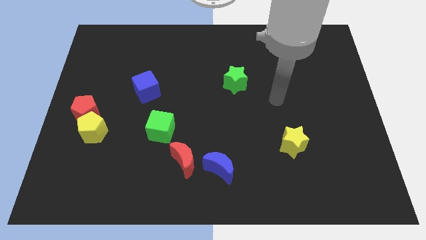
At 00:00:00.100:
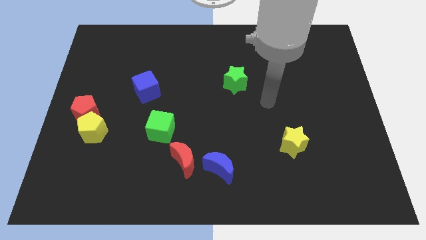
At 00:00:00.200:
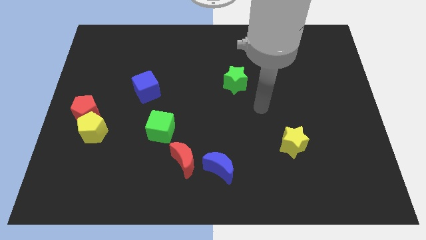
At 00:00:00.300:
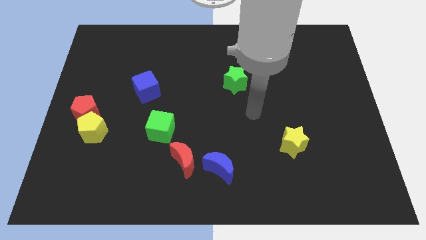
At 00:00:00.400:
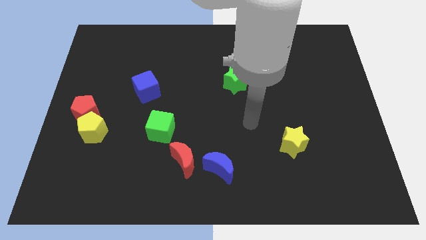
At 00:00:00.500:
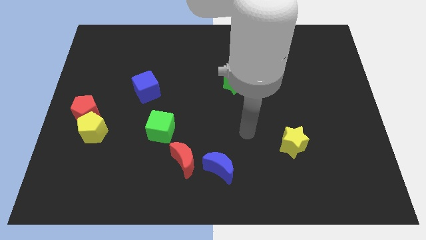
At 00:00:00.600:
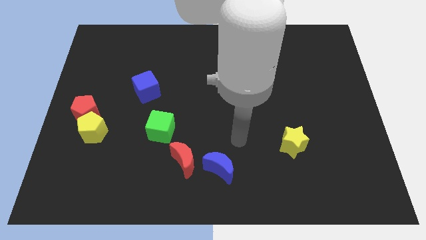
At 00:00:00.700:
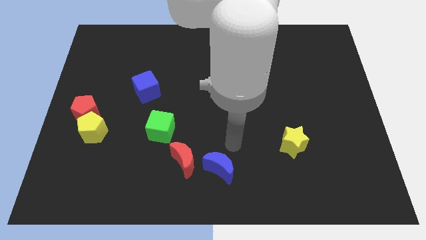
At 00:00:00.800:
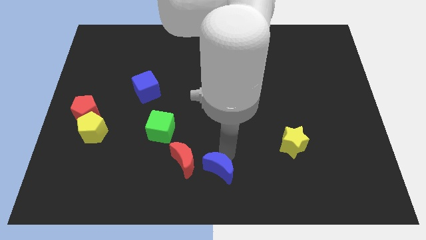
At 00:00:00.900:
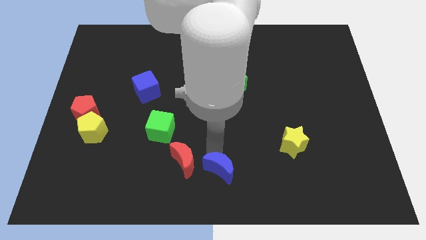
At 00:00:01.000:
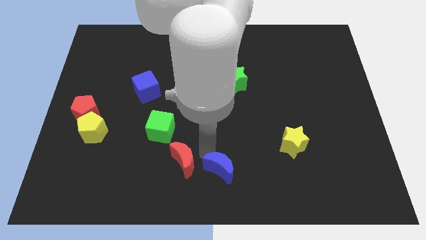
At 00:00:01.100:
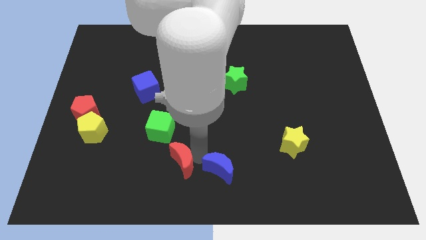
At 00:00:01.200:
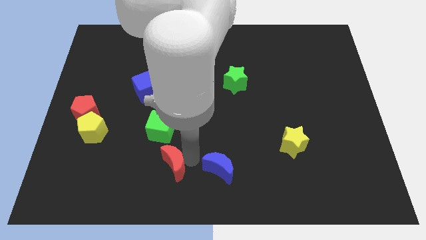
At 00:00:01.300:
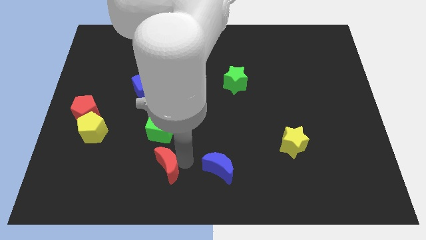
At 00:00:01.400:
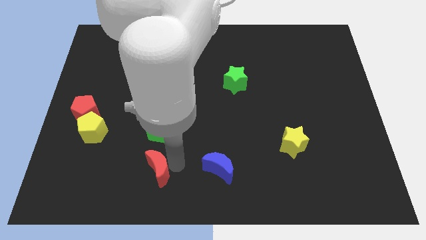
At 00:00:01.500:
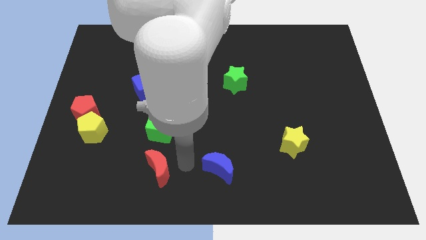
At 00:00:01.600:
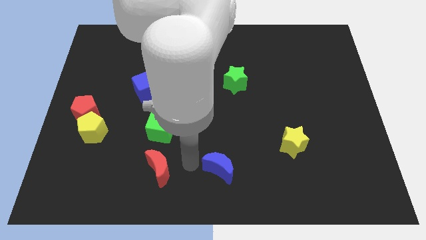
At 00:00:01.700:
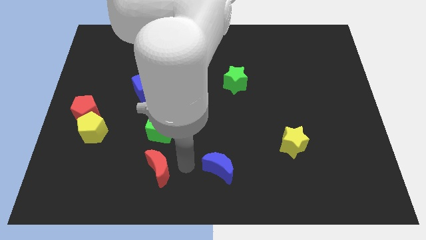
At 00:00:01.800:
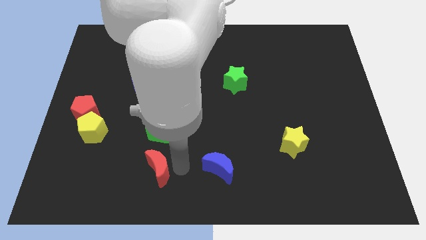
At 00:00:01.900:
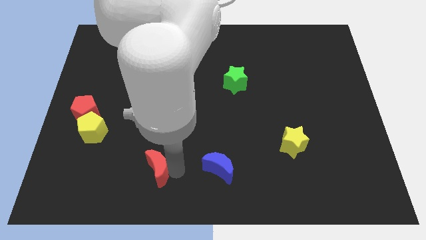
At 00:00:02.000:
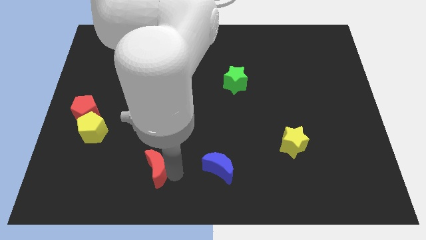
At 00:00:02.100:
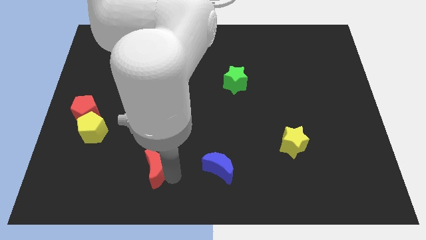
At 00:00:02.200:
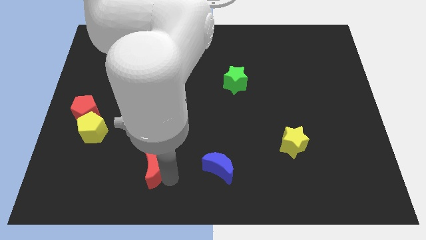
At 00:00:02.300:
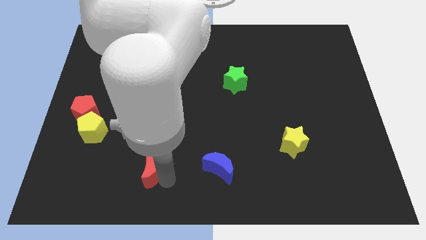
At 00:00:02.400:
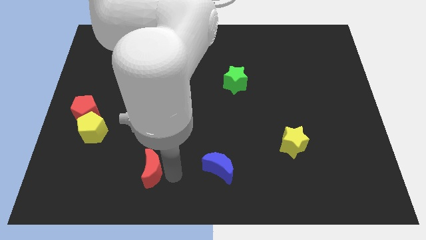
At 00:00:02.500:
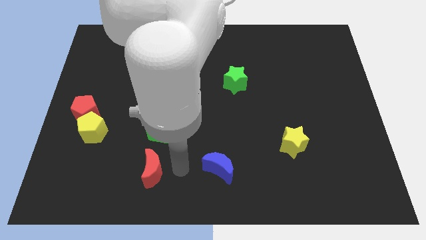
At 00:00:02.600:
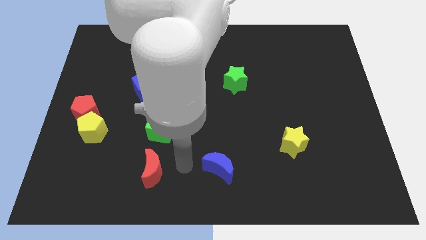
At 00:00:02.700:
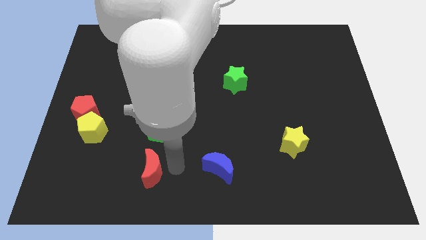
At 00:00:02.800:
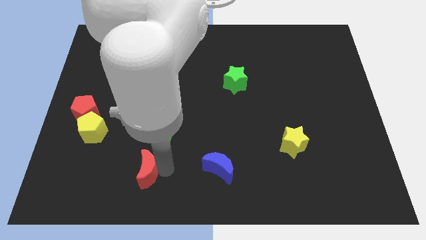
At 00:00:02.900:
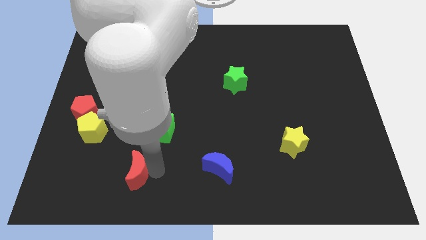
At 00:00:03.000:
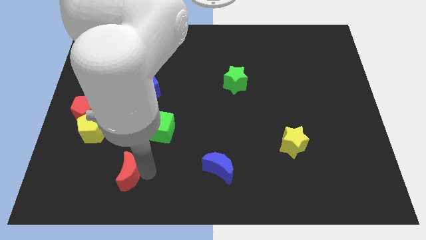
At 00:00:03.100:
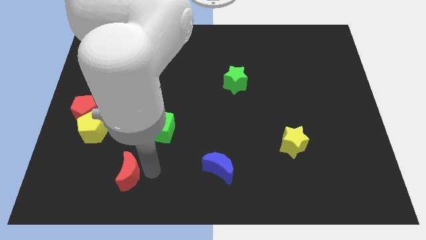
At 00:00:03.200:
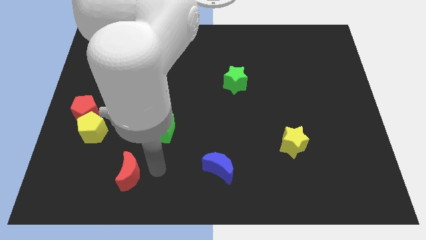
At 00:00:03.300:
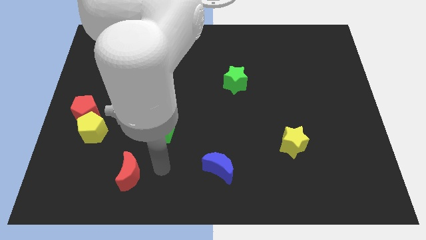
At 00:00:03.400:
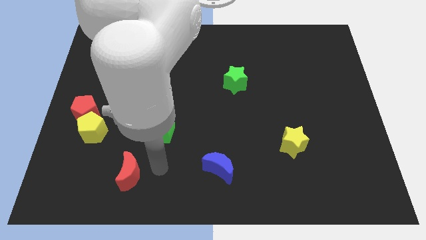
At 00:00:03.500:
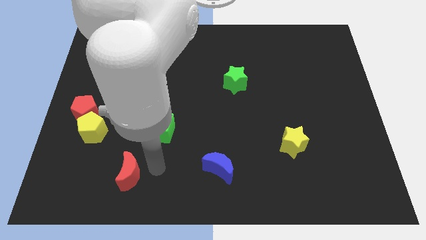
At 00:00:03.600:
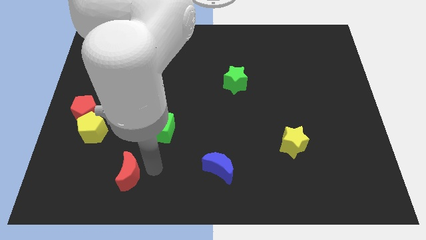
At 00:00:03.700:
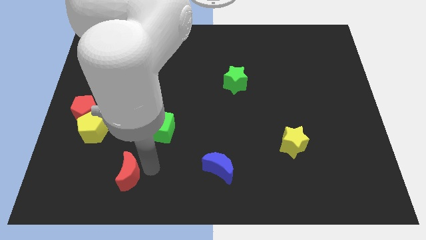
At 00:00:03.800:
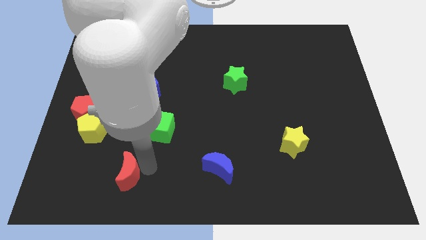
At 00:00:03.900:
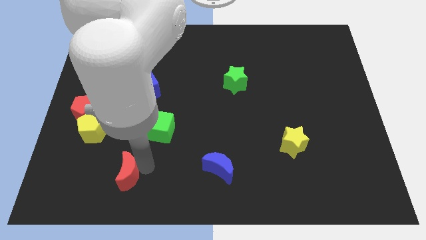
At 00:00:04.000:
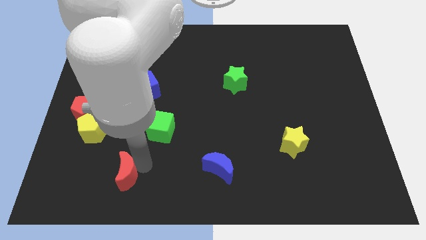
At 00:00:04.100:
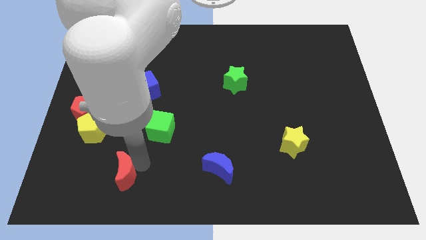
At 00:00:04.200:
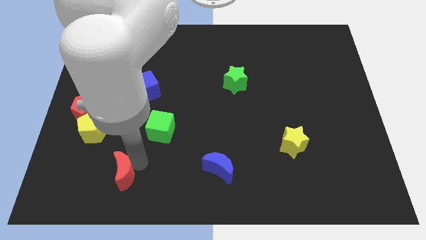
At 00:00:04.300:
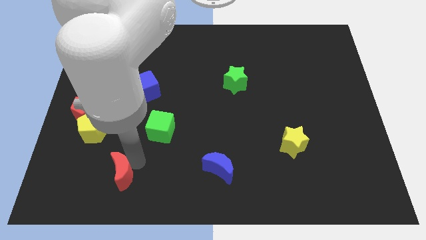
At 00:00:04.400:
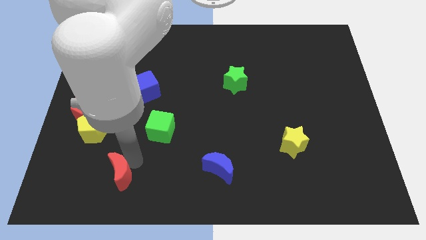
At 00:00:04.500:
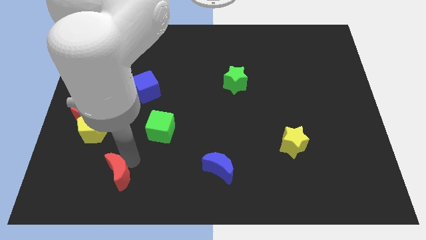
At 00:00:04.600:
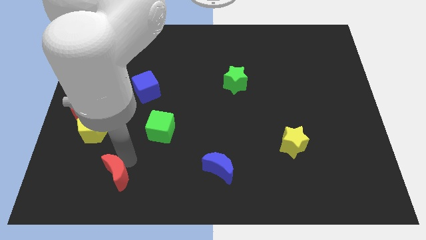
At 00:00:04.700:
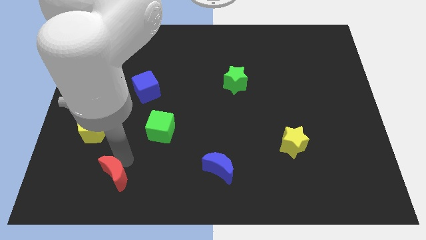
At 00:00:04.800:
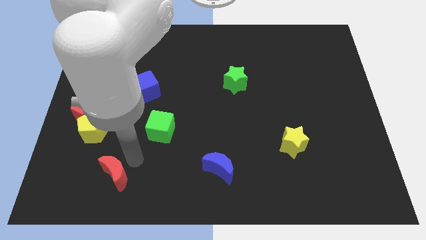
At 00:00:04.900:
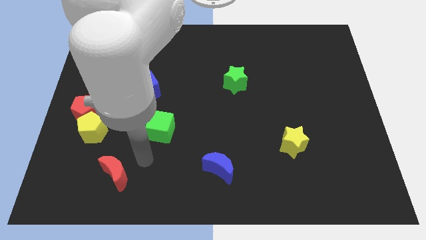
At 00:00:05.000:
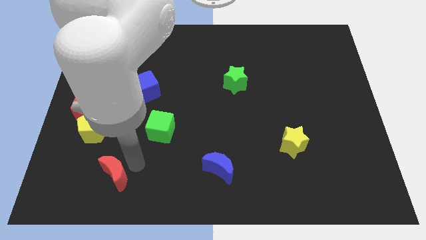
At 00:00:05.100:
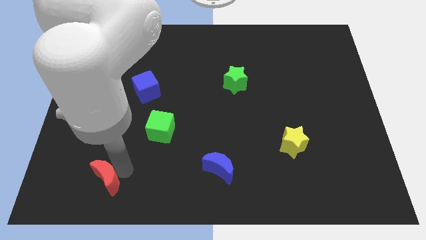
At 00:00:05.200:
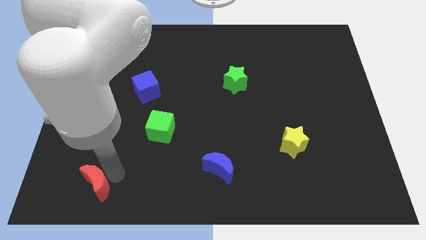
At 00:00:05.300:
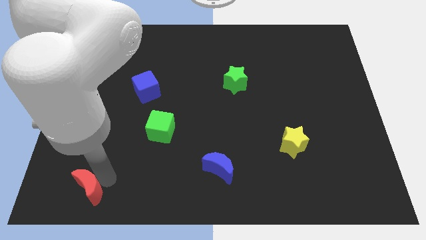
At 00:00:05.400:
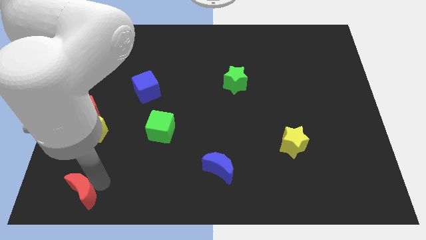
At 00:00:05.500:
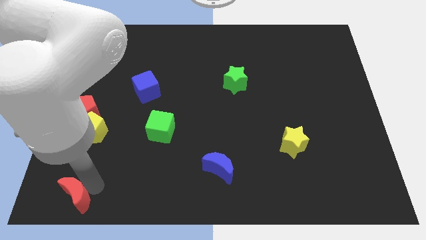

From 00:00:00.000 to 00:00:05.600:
put the red moon to the lower left corner
